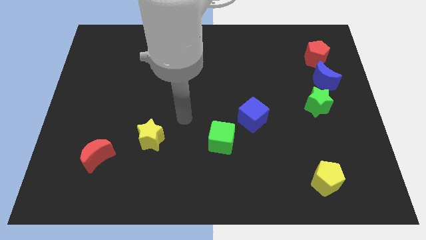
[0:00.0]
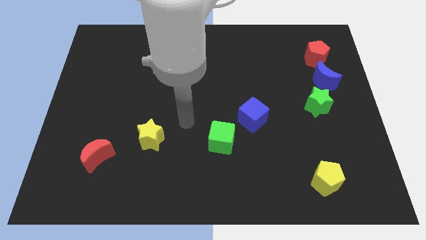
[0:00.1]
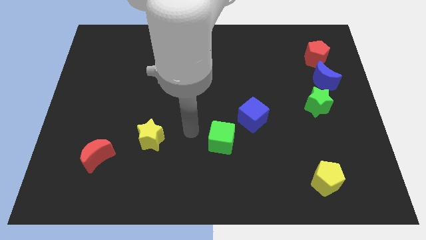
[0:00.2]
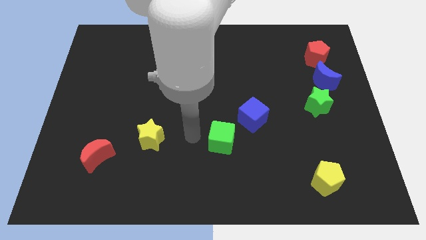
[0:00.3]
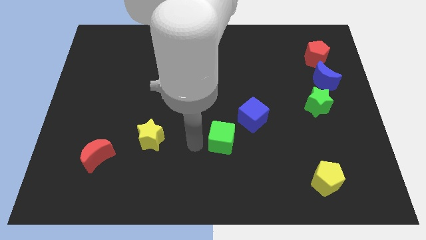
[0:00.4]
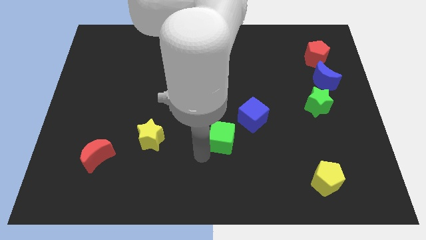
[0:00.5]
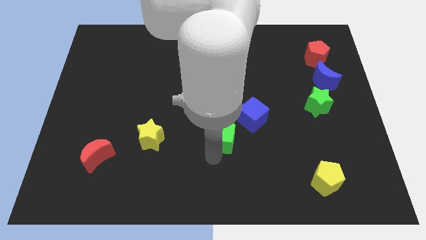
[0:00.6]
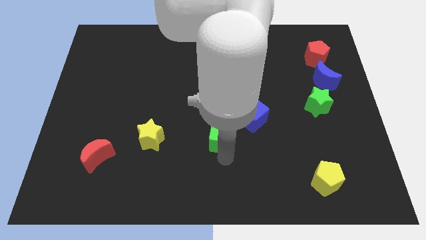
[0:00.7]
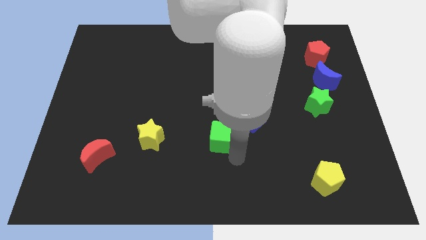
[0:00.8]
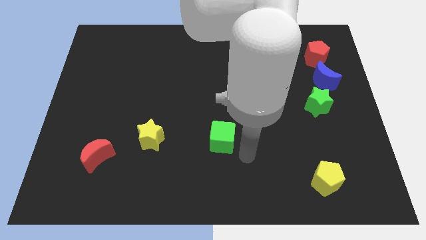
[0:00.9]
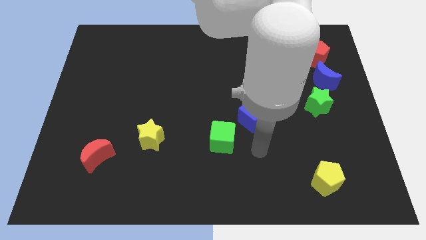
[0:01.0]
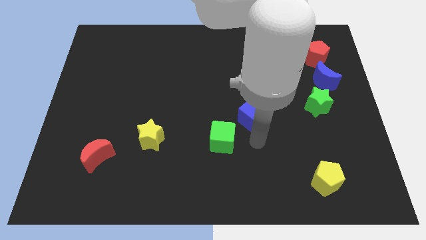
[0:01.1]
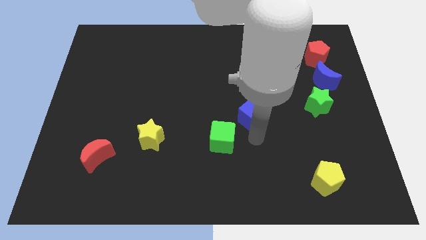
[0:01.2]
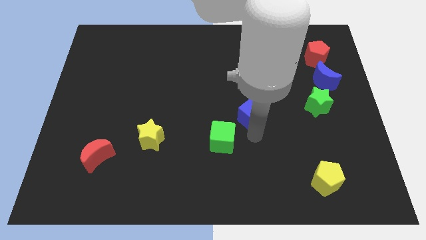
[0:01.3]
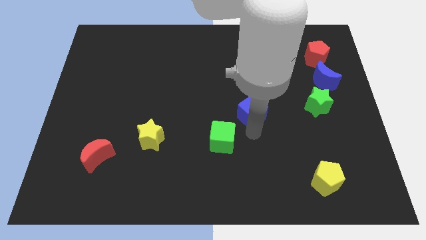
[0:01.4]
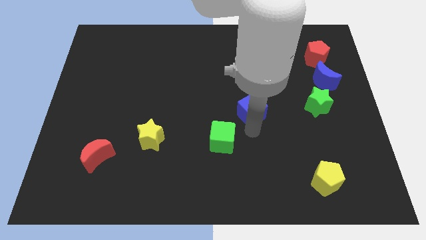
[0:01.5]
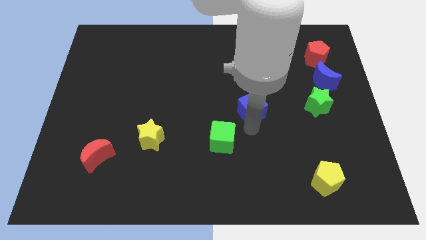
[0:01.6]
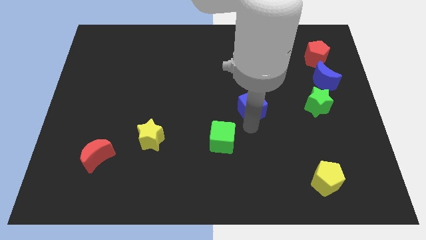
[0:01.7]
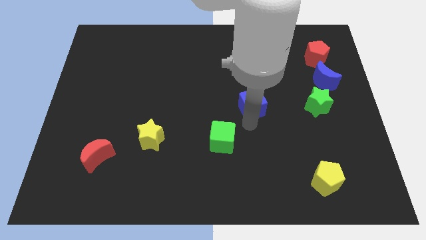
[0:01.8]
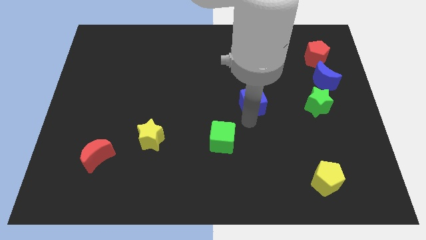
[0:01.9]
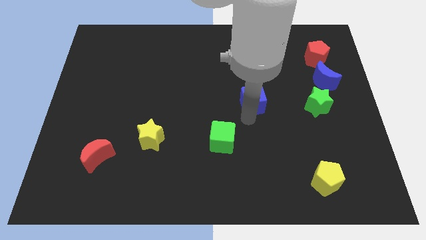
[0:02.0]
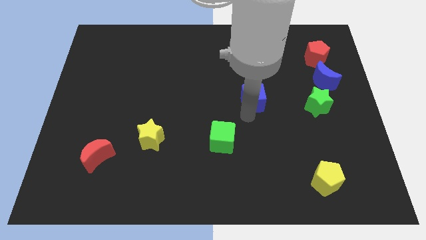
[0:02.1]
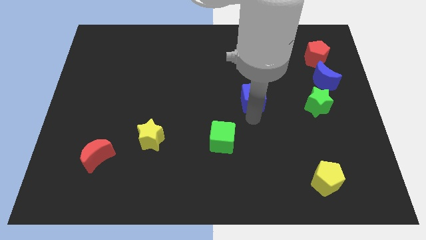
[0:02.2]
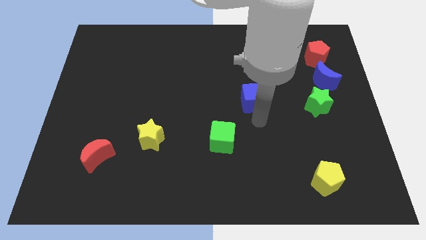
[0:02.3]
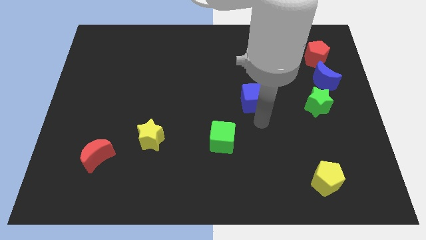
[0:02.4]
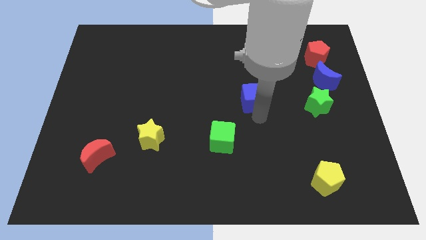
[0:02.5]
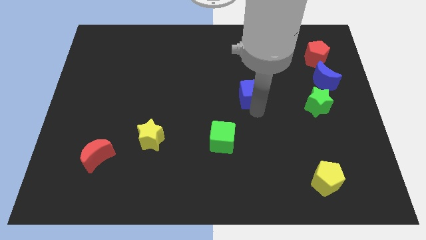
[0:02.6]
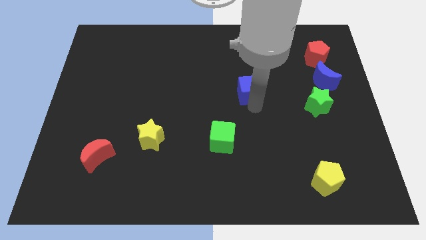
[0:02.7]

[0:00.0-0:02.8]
slide the blue cube upwards a bit

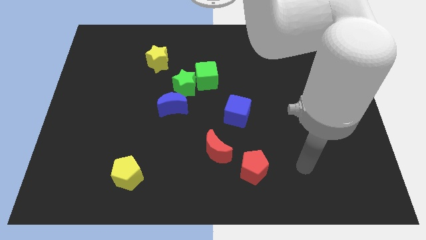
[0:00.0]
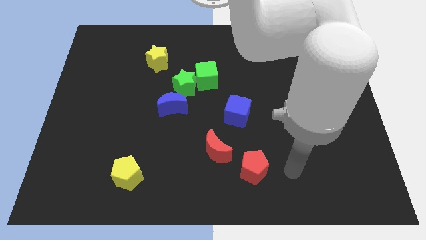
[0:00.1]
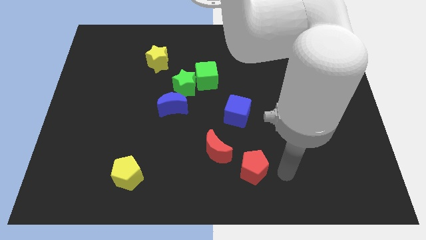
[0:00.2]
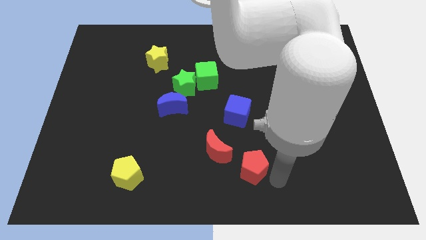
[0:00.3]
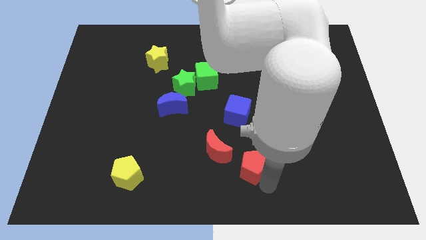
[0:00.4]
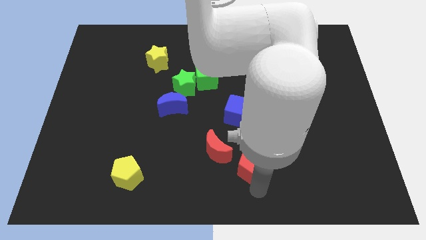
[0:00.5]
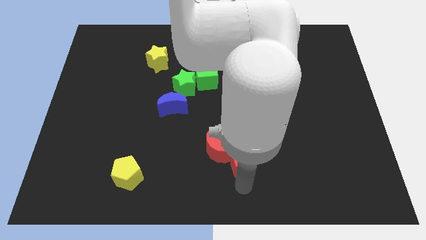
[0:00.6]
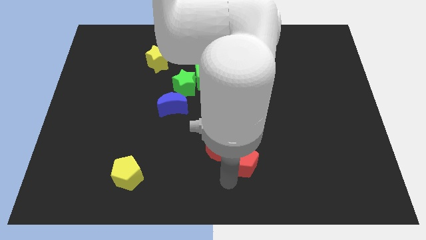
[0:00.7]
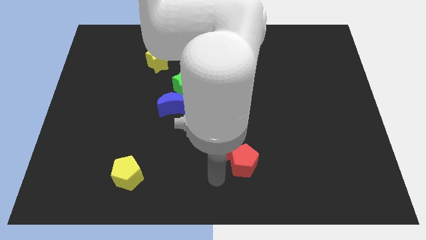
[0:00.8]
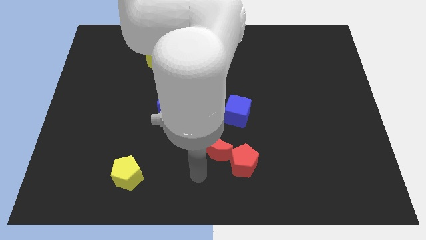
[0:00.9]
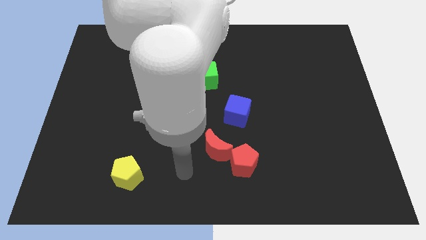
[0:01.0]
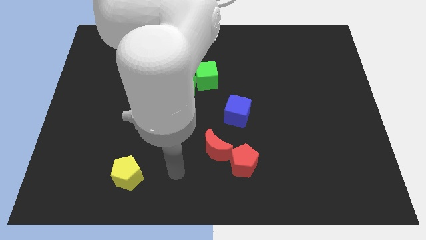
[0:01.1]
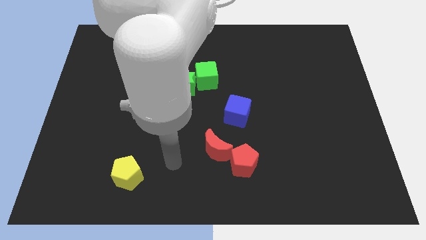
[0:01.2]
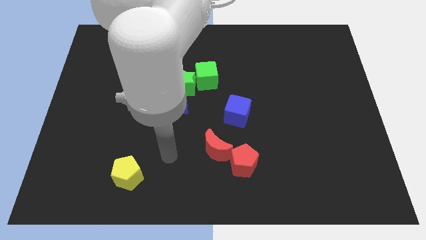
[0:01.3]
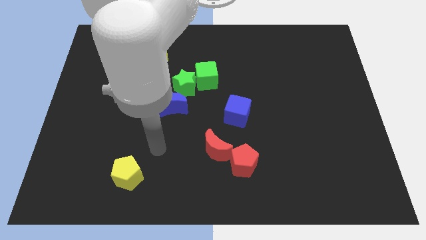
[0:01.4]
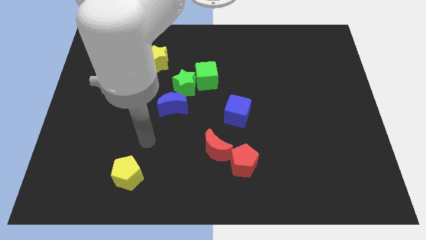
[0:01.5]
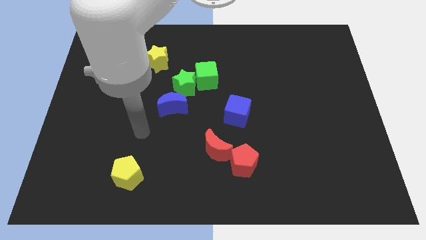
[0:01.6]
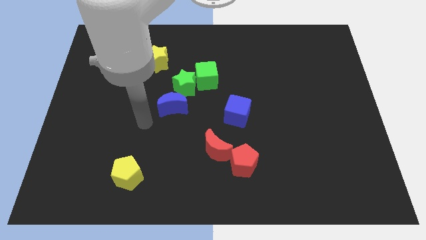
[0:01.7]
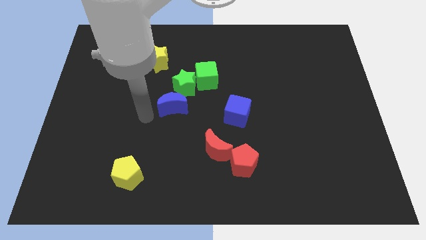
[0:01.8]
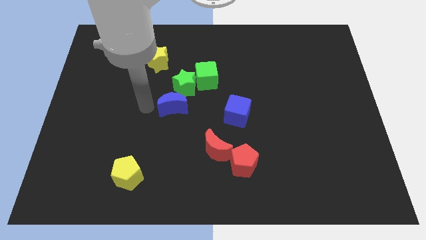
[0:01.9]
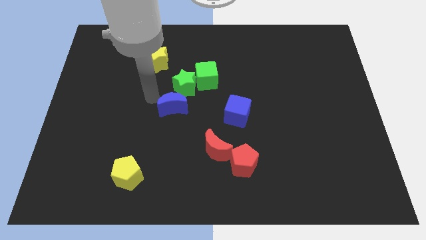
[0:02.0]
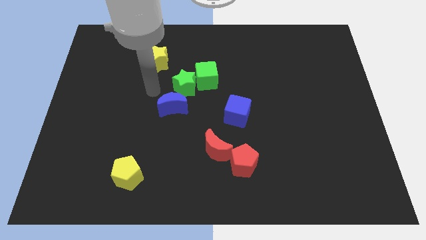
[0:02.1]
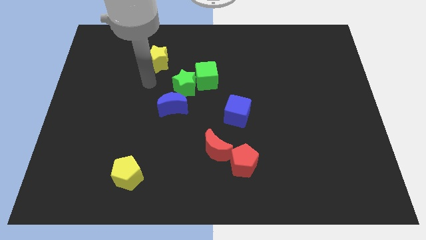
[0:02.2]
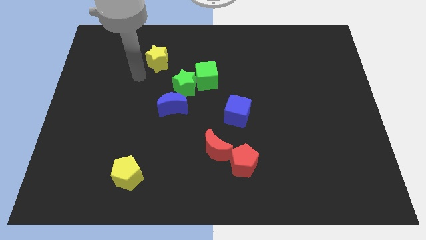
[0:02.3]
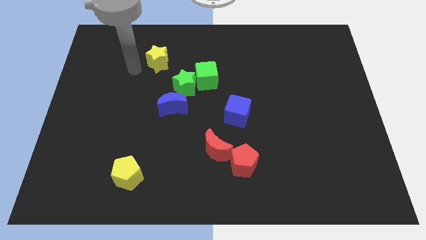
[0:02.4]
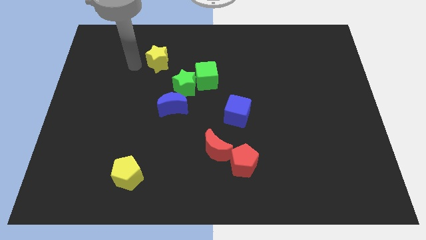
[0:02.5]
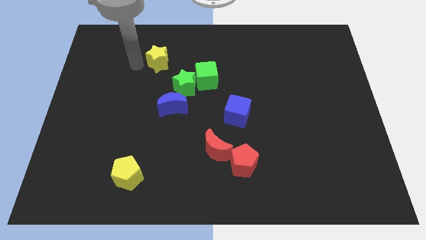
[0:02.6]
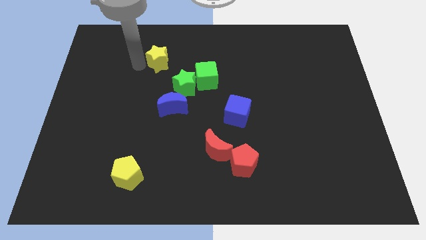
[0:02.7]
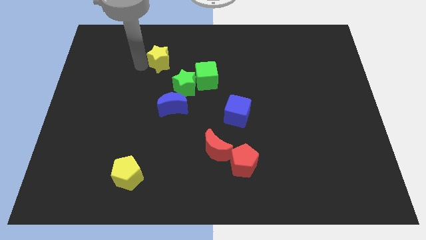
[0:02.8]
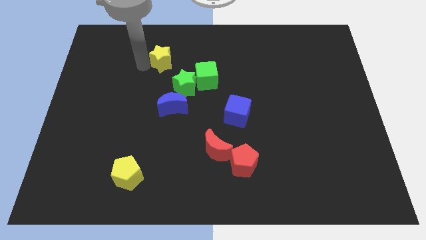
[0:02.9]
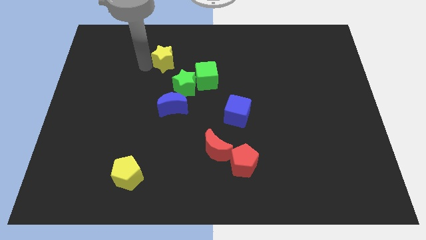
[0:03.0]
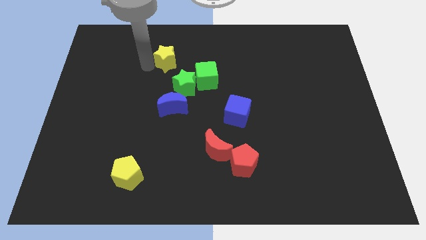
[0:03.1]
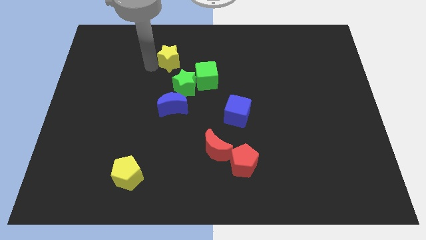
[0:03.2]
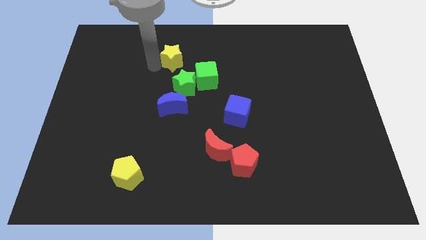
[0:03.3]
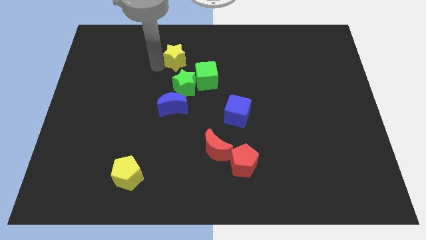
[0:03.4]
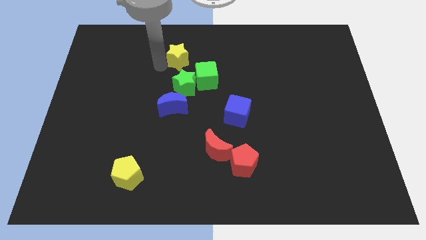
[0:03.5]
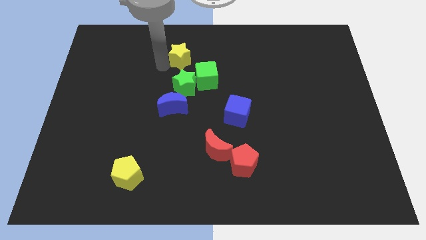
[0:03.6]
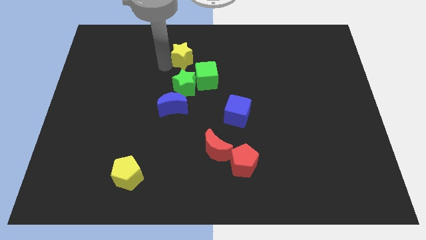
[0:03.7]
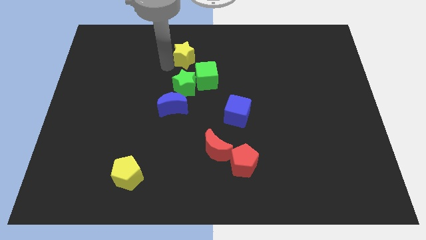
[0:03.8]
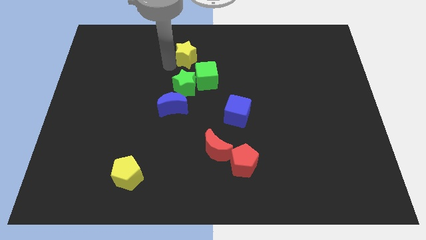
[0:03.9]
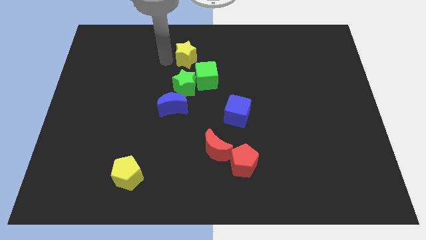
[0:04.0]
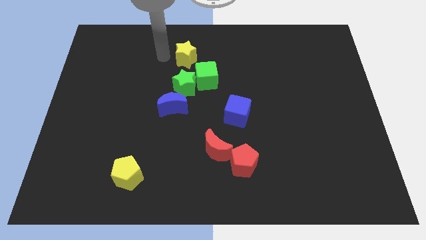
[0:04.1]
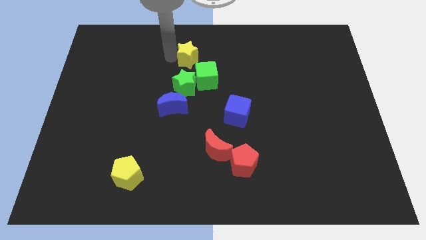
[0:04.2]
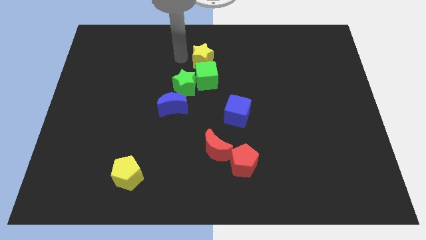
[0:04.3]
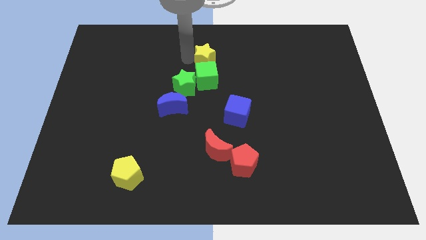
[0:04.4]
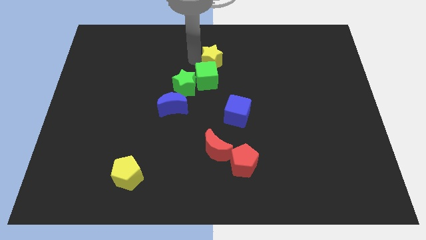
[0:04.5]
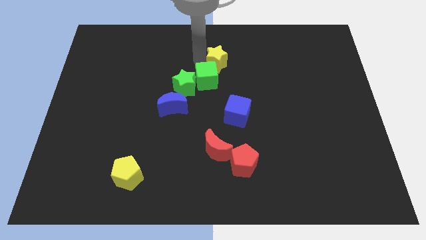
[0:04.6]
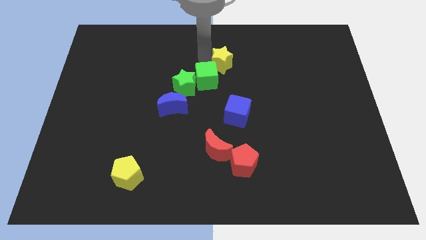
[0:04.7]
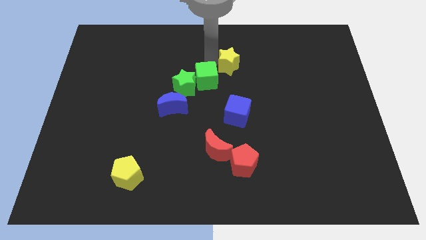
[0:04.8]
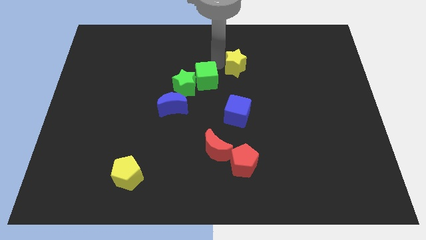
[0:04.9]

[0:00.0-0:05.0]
slide the yellow star to the right
